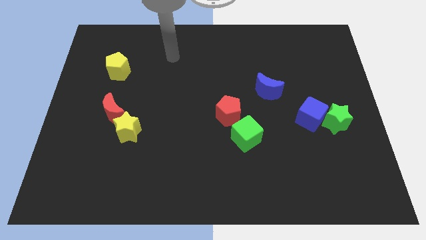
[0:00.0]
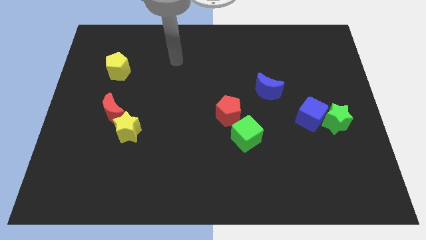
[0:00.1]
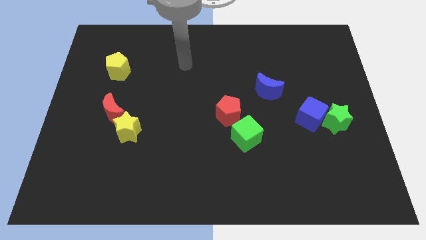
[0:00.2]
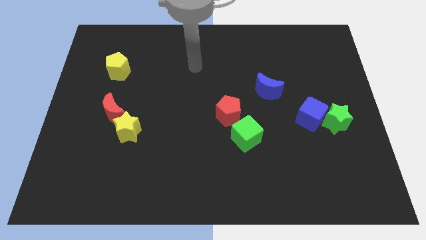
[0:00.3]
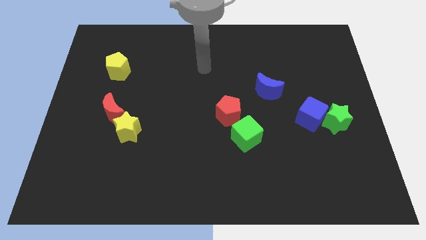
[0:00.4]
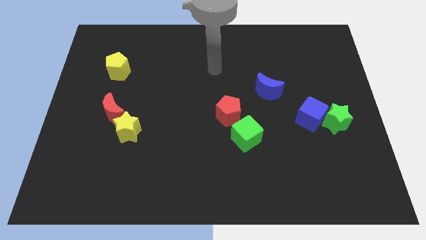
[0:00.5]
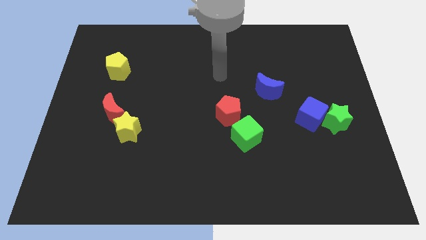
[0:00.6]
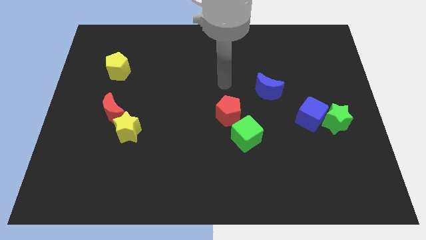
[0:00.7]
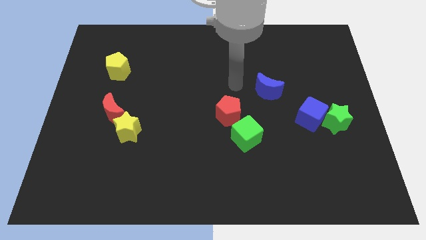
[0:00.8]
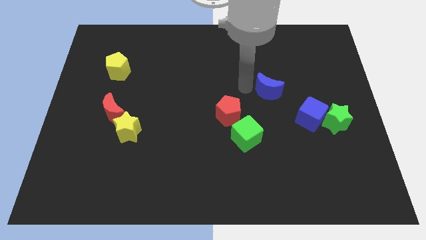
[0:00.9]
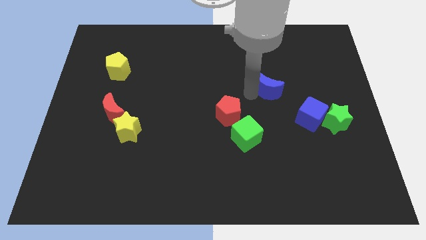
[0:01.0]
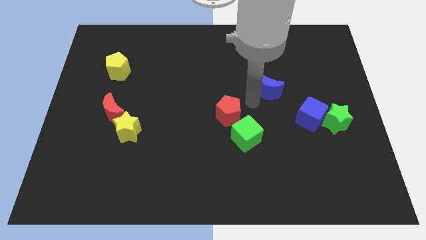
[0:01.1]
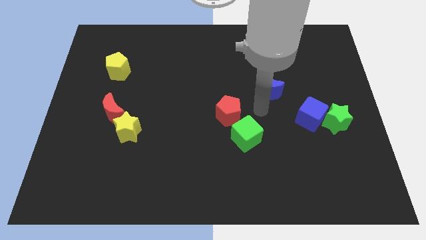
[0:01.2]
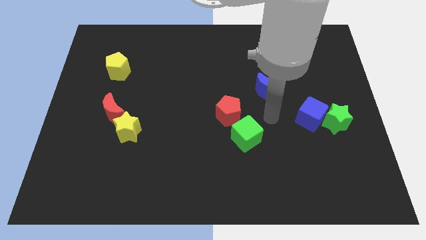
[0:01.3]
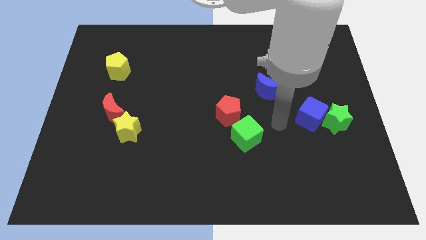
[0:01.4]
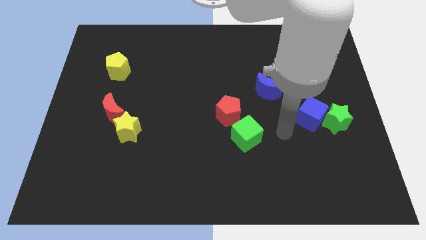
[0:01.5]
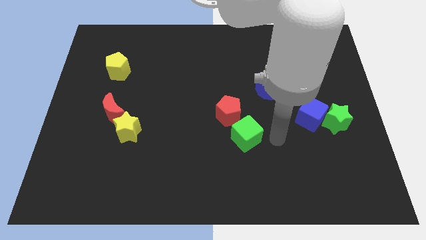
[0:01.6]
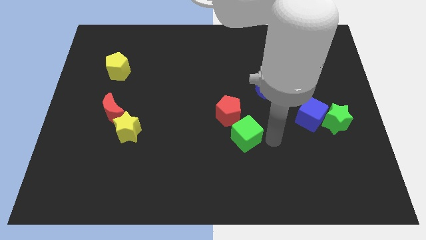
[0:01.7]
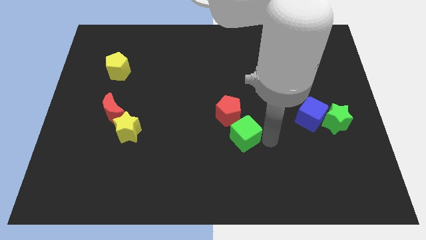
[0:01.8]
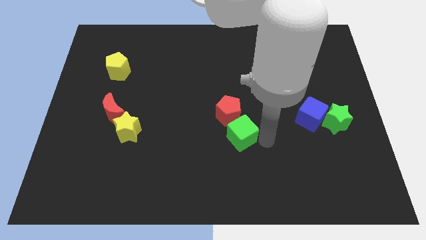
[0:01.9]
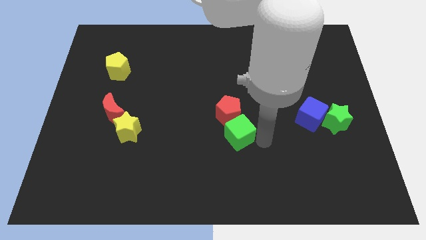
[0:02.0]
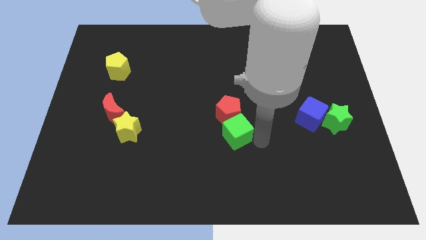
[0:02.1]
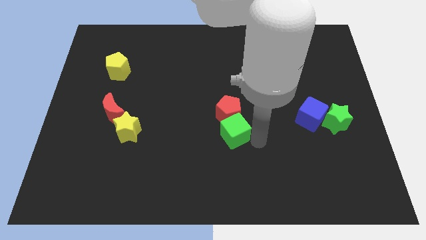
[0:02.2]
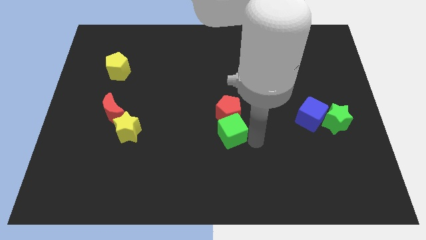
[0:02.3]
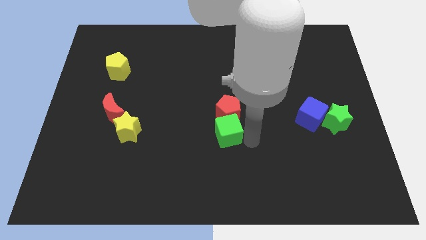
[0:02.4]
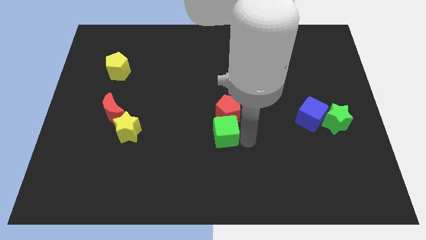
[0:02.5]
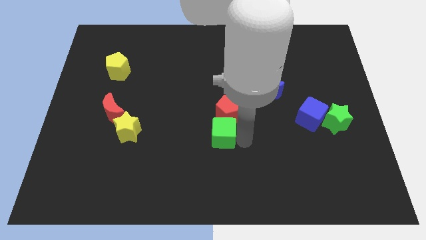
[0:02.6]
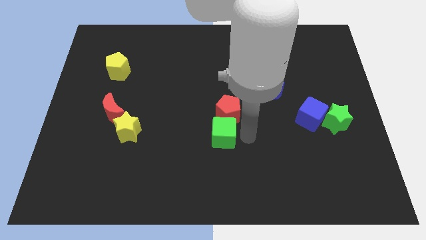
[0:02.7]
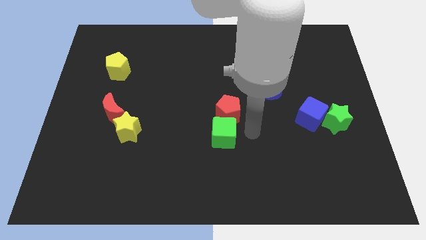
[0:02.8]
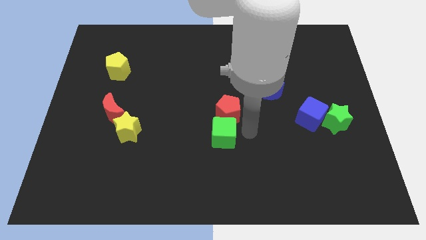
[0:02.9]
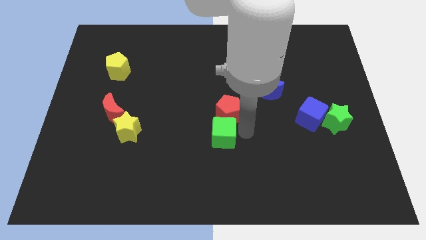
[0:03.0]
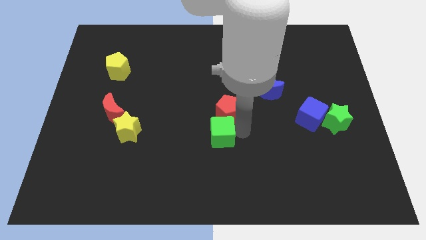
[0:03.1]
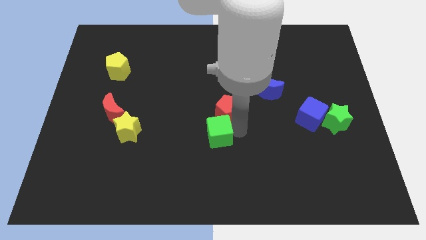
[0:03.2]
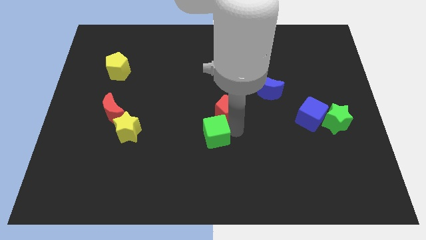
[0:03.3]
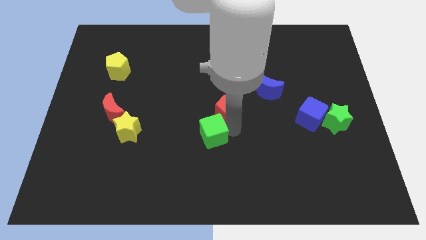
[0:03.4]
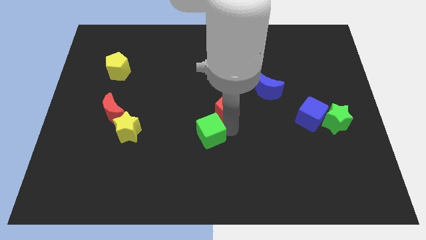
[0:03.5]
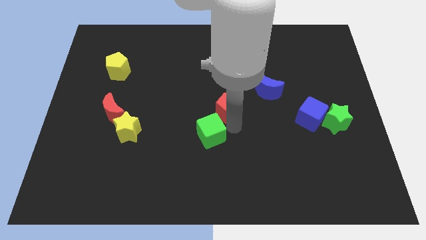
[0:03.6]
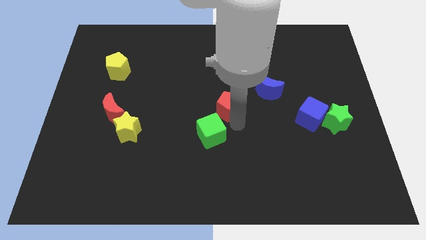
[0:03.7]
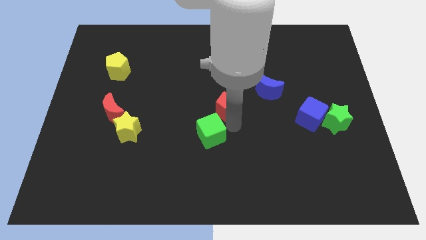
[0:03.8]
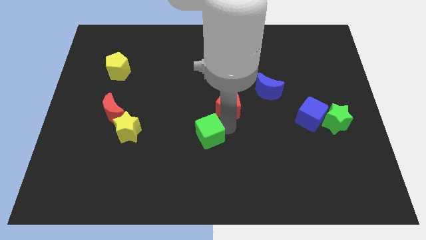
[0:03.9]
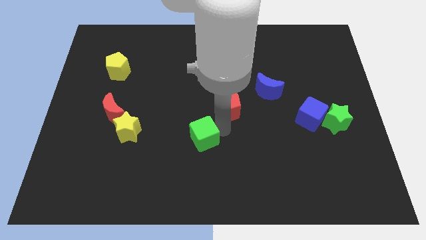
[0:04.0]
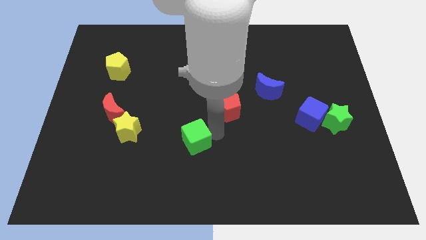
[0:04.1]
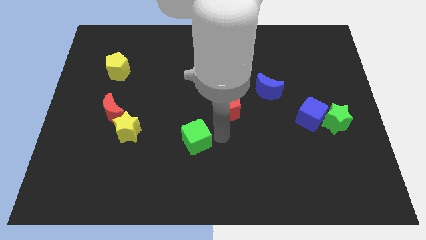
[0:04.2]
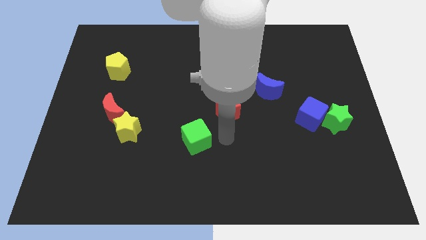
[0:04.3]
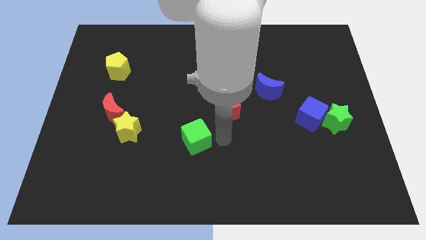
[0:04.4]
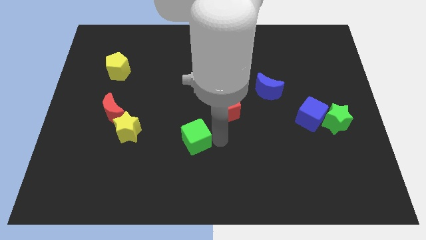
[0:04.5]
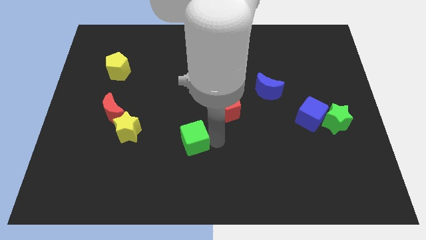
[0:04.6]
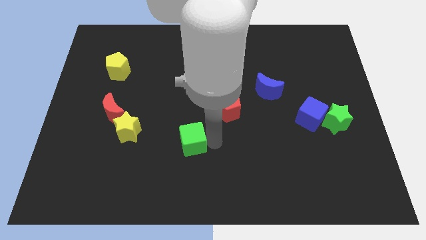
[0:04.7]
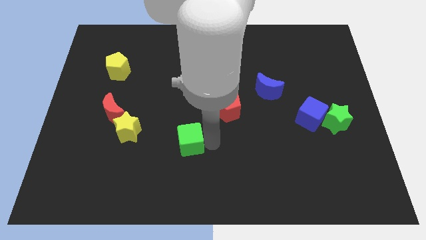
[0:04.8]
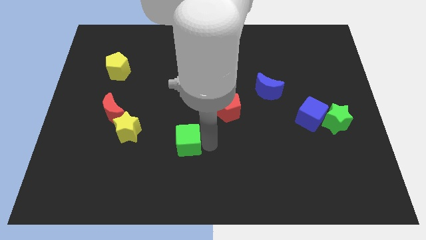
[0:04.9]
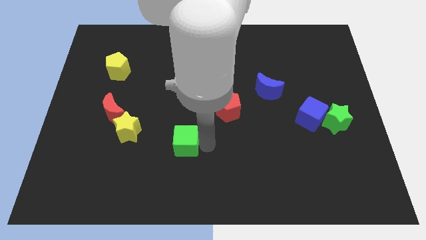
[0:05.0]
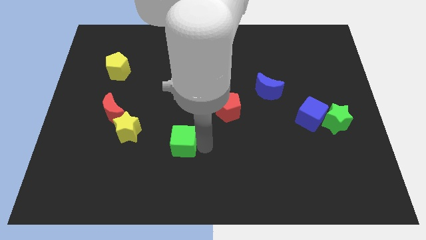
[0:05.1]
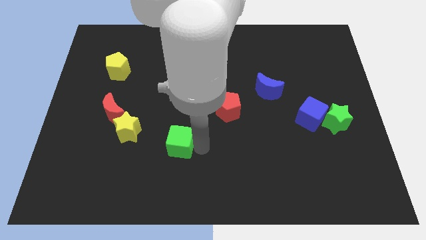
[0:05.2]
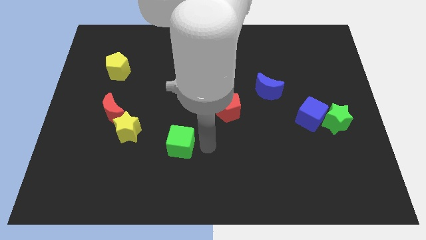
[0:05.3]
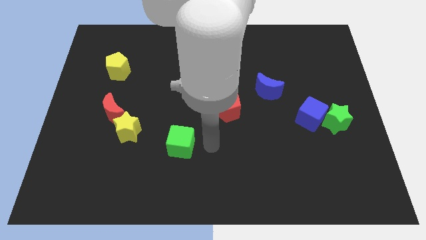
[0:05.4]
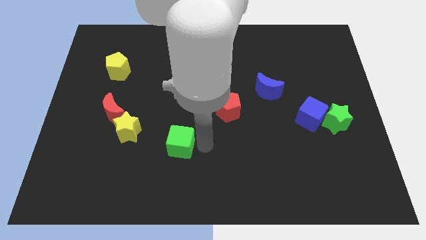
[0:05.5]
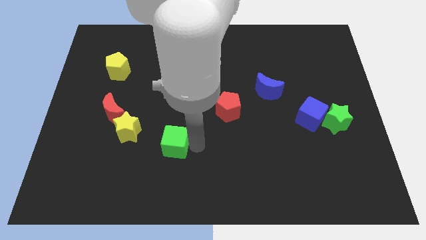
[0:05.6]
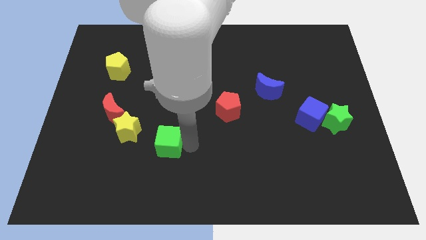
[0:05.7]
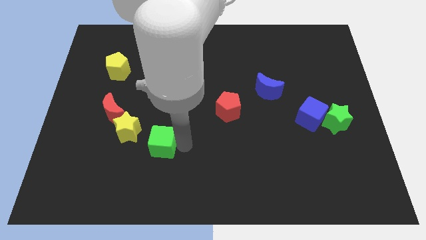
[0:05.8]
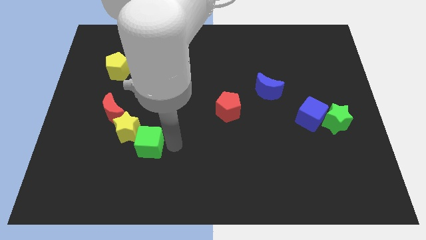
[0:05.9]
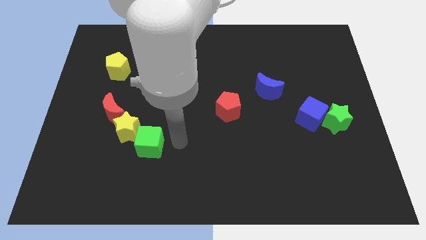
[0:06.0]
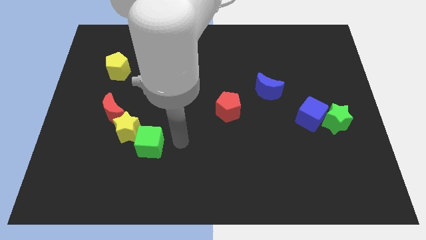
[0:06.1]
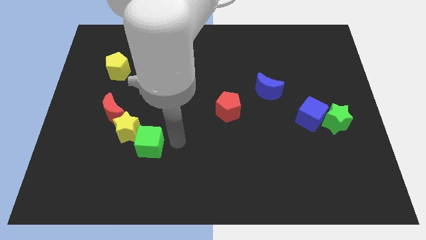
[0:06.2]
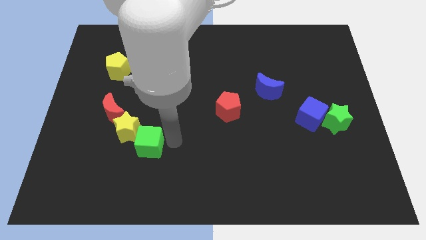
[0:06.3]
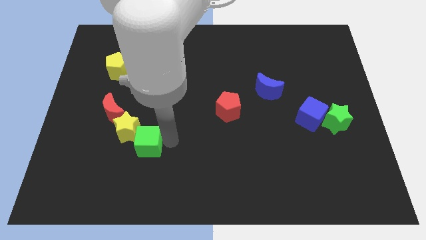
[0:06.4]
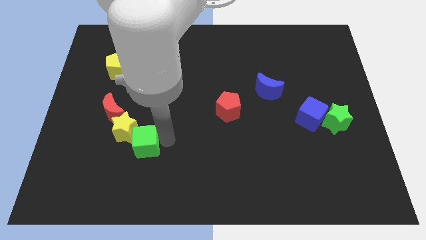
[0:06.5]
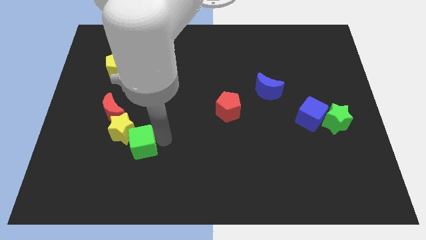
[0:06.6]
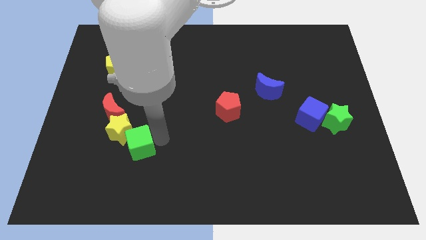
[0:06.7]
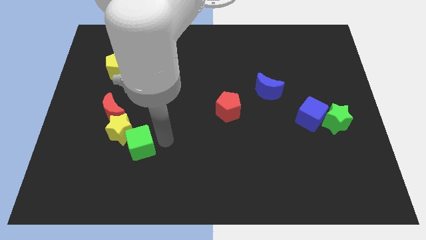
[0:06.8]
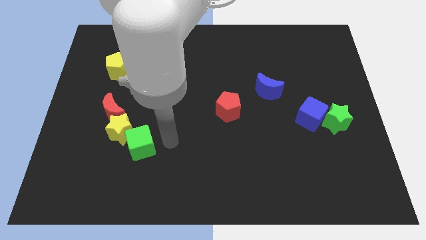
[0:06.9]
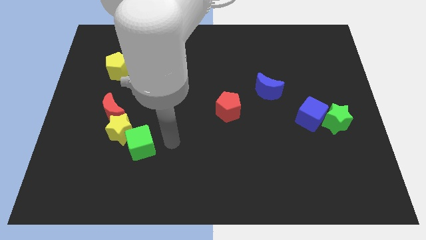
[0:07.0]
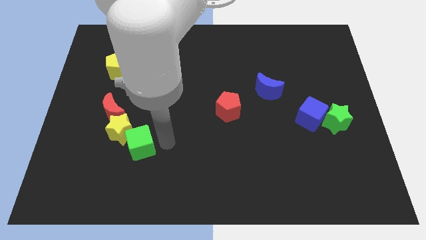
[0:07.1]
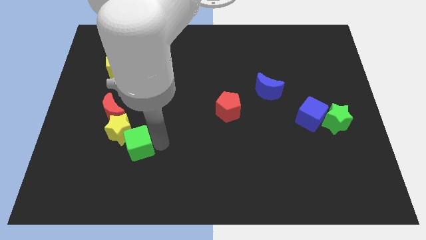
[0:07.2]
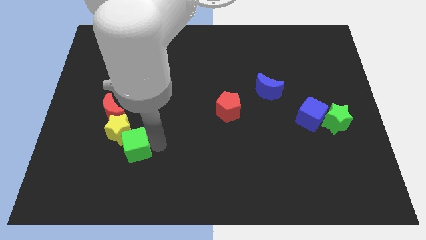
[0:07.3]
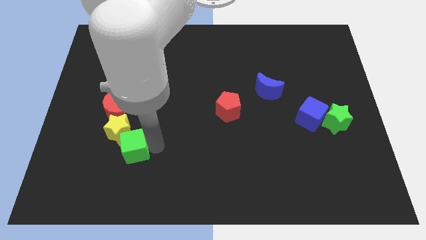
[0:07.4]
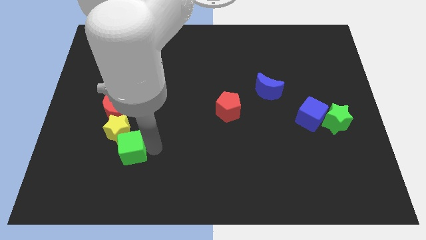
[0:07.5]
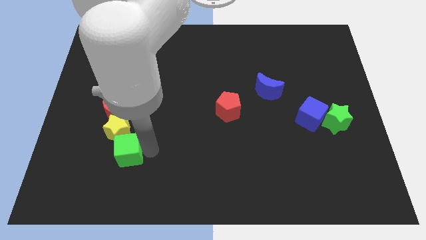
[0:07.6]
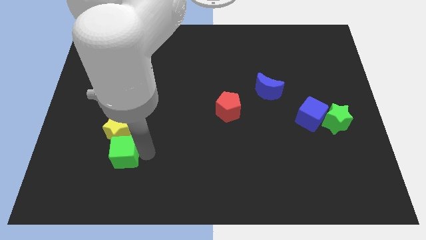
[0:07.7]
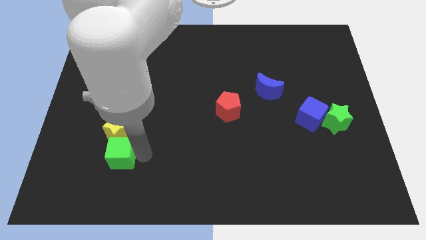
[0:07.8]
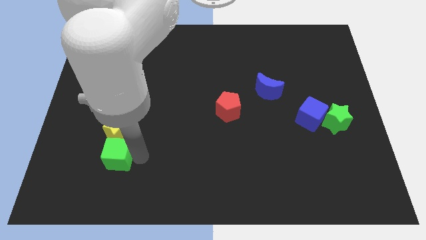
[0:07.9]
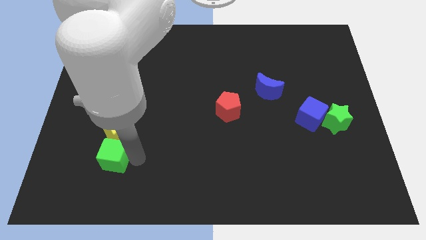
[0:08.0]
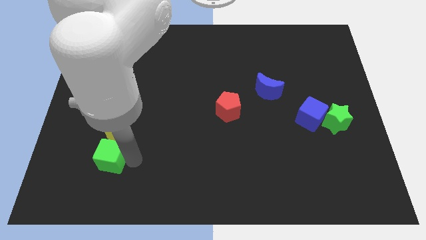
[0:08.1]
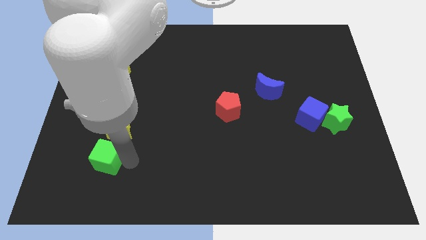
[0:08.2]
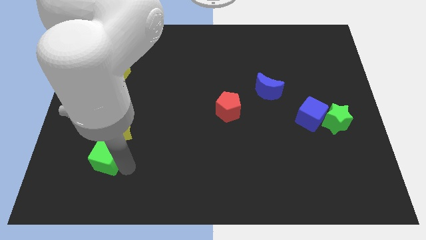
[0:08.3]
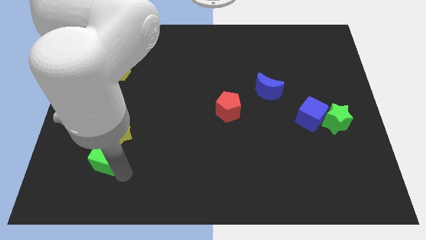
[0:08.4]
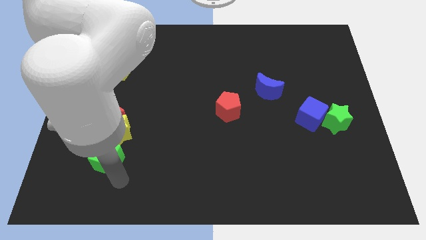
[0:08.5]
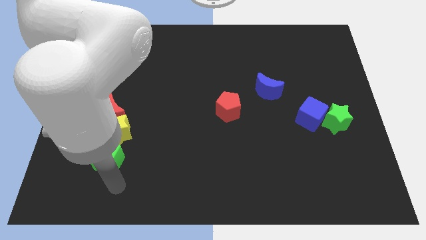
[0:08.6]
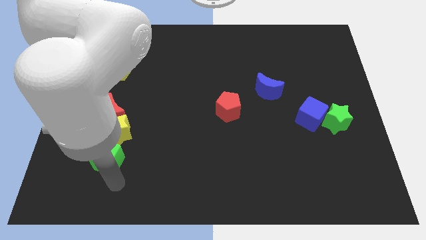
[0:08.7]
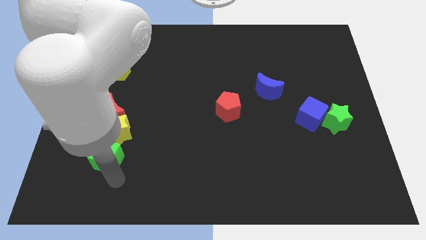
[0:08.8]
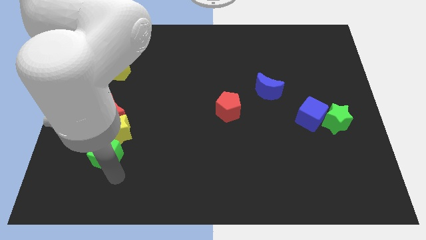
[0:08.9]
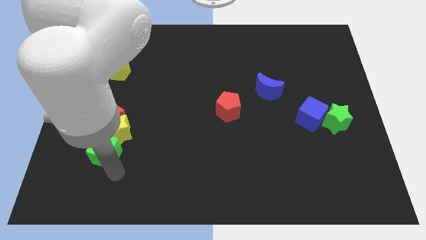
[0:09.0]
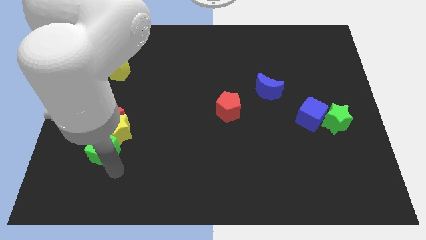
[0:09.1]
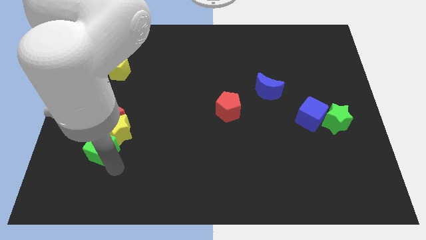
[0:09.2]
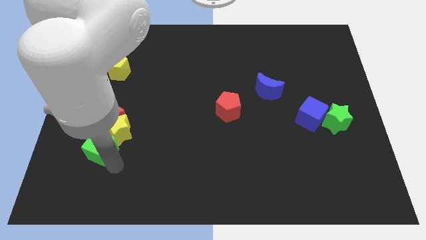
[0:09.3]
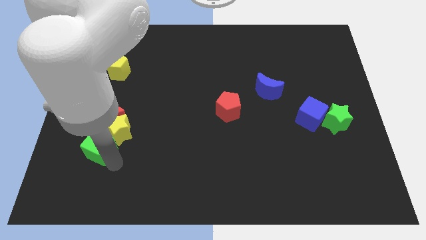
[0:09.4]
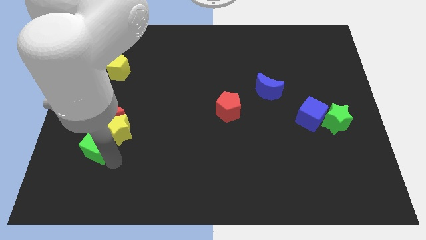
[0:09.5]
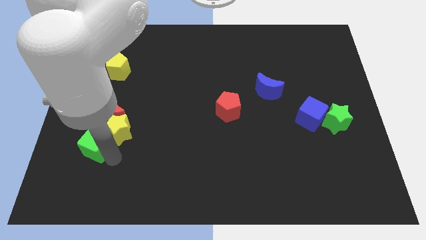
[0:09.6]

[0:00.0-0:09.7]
move the green cube diagonally down and to the left of the red moon
